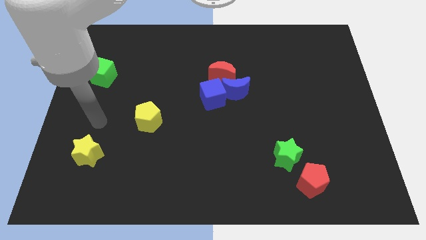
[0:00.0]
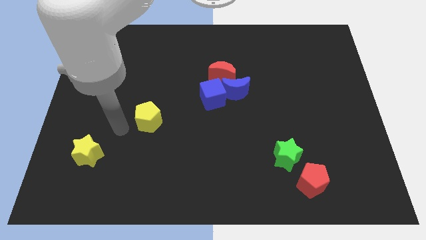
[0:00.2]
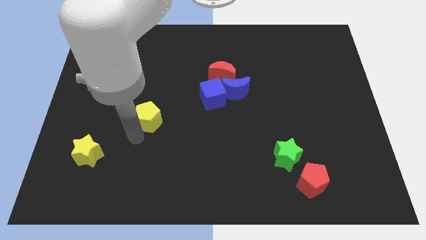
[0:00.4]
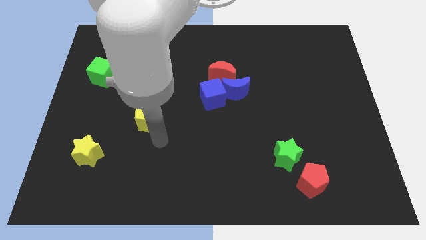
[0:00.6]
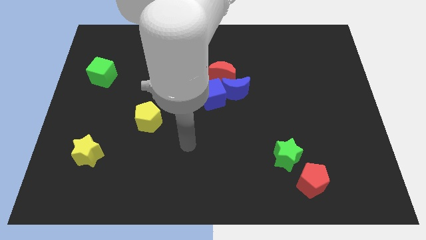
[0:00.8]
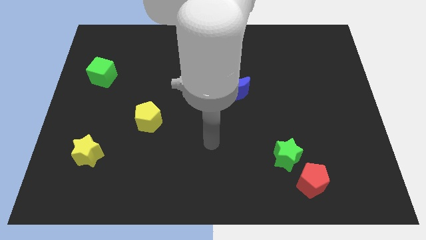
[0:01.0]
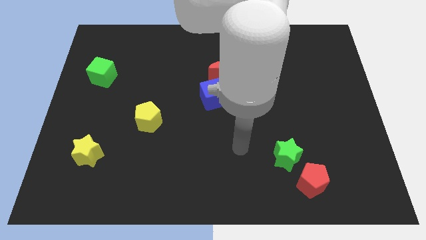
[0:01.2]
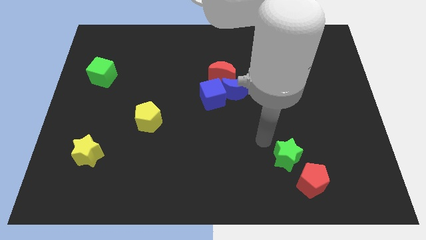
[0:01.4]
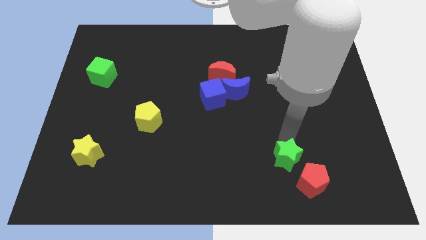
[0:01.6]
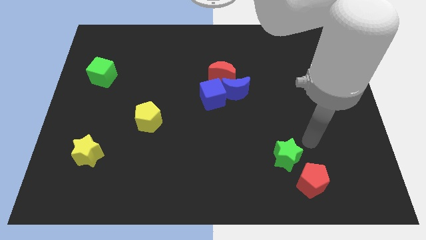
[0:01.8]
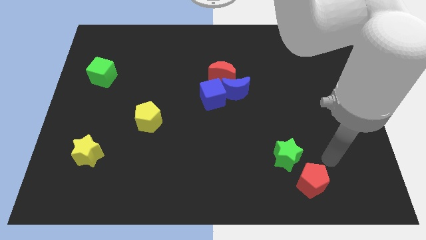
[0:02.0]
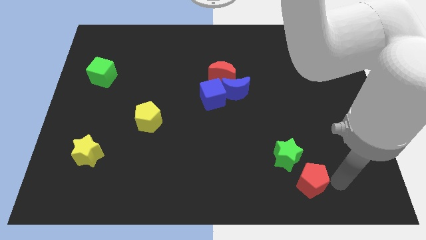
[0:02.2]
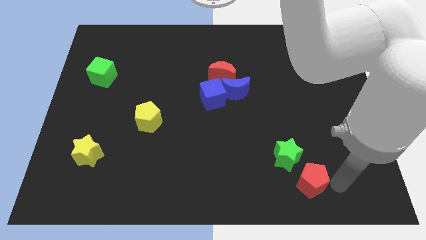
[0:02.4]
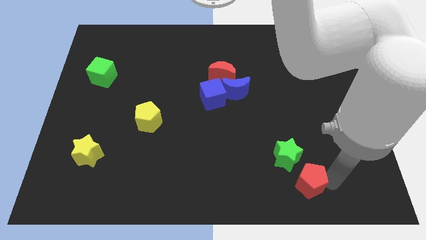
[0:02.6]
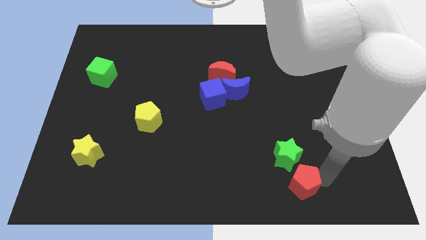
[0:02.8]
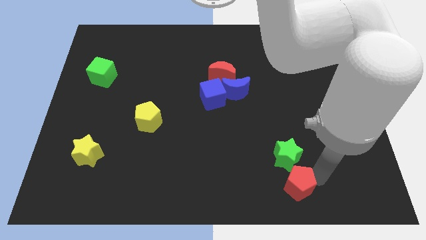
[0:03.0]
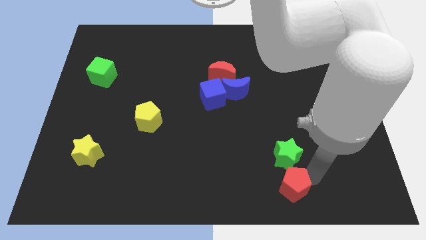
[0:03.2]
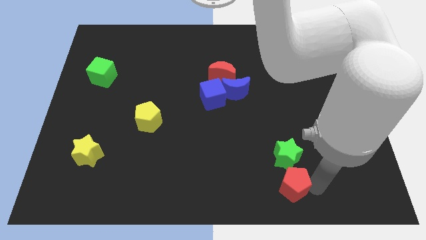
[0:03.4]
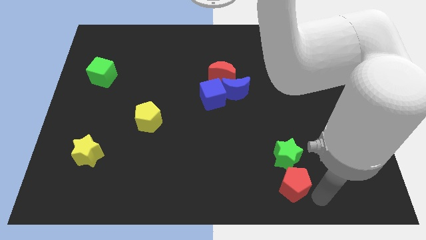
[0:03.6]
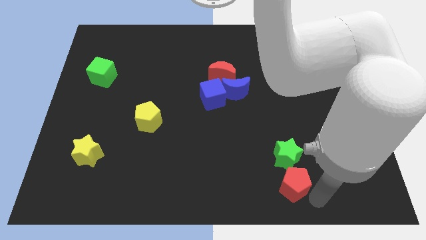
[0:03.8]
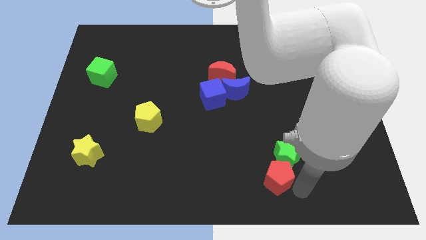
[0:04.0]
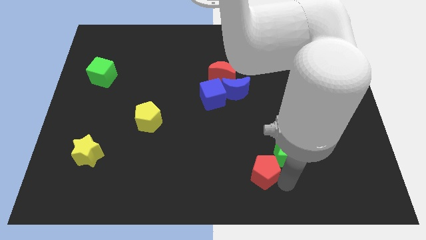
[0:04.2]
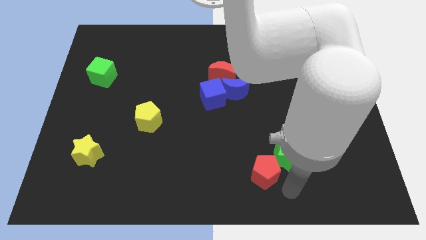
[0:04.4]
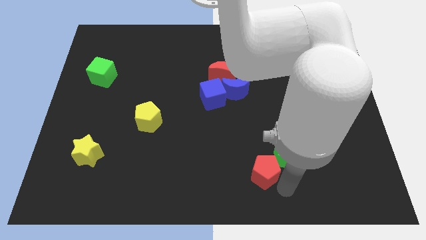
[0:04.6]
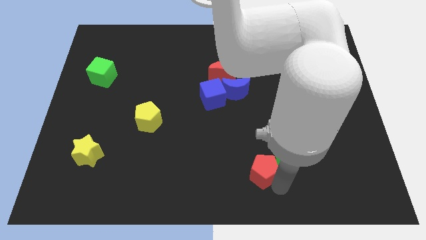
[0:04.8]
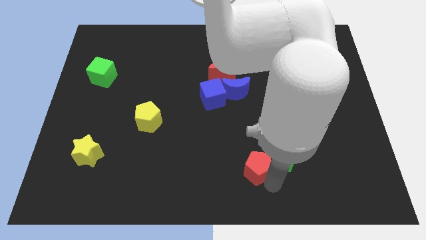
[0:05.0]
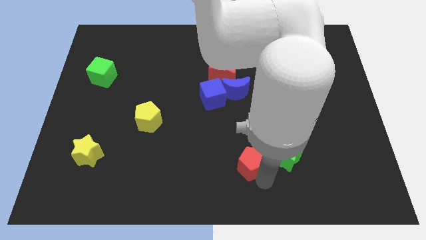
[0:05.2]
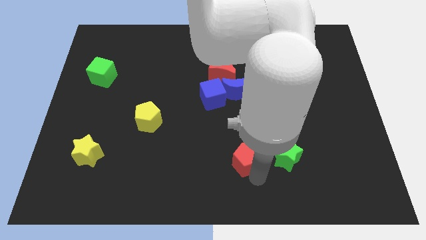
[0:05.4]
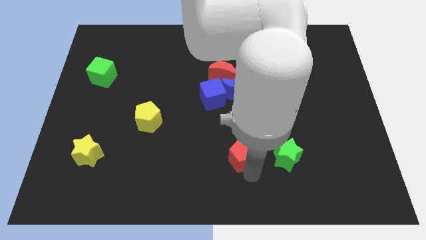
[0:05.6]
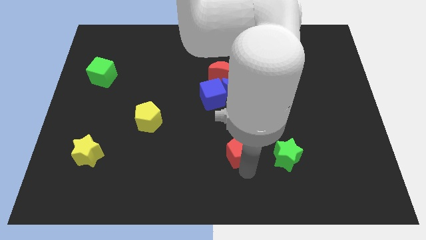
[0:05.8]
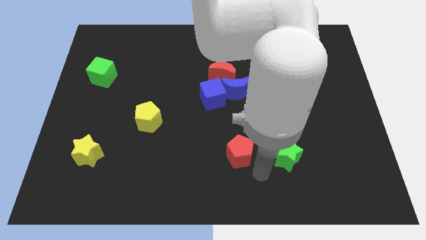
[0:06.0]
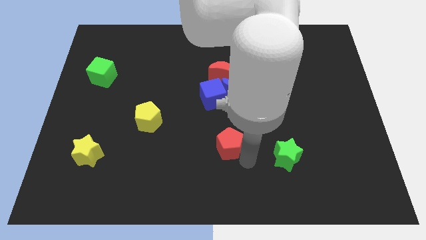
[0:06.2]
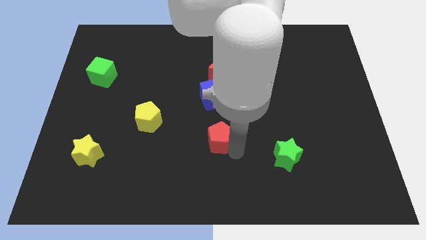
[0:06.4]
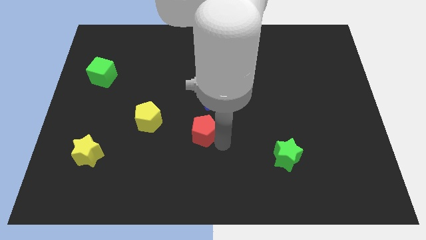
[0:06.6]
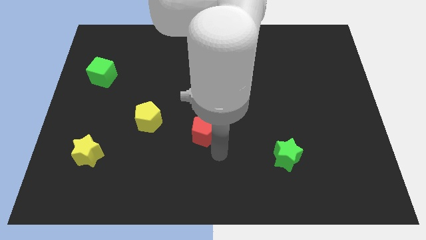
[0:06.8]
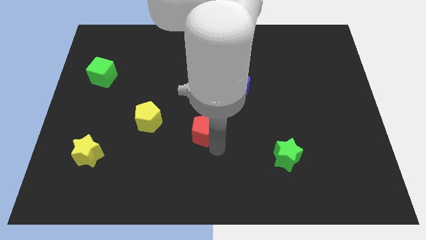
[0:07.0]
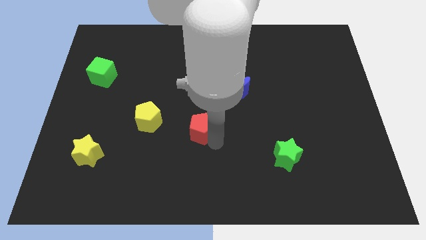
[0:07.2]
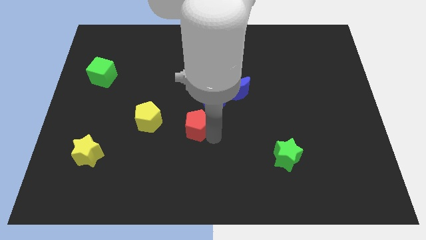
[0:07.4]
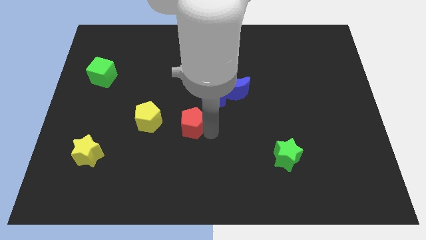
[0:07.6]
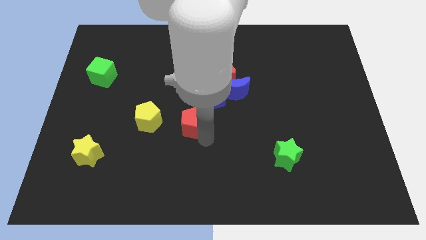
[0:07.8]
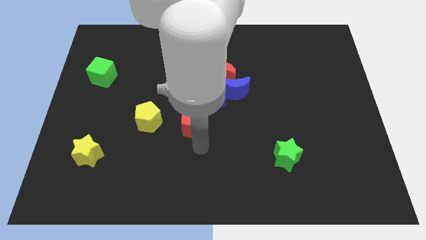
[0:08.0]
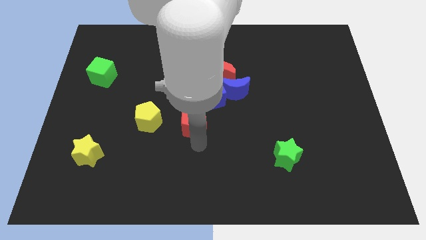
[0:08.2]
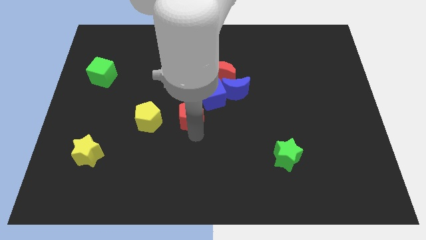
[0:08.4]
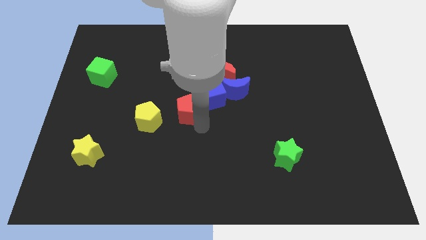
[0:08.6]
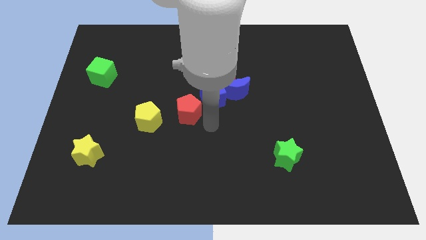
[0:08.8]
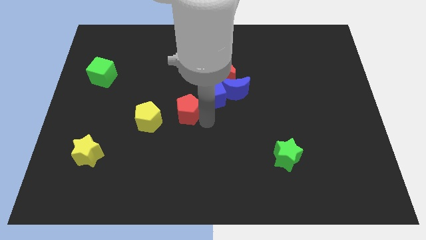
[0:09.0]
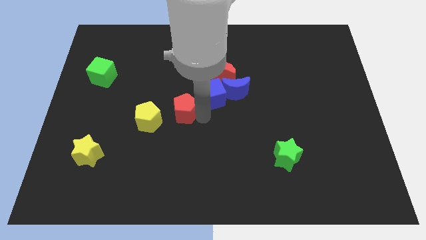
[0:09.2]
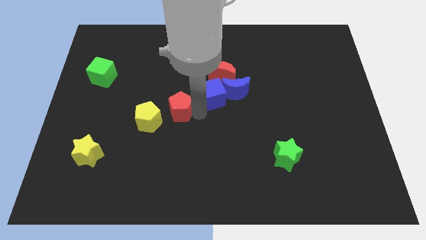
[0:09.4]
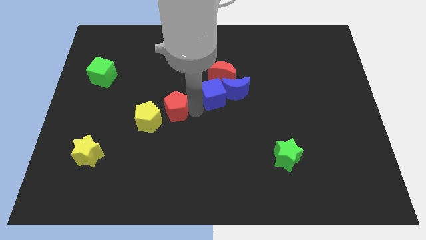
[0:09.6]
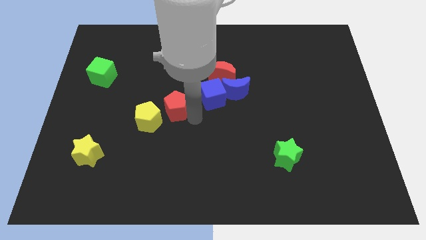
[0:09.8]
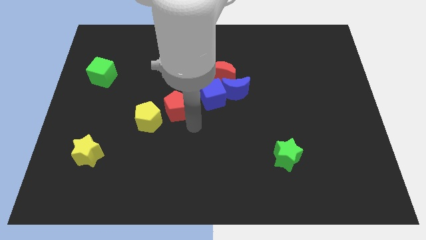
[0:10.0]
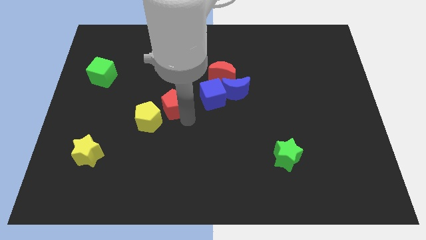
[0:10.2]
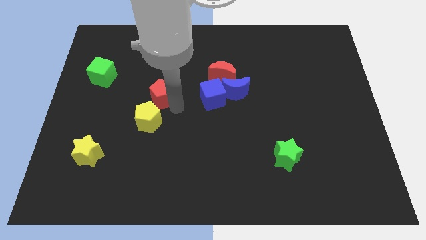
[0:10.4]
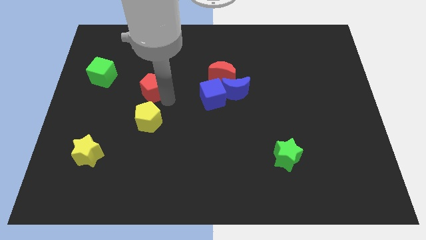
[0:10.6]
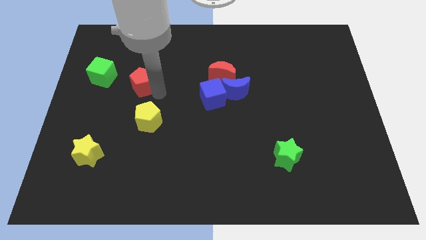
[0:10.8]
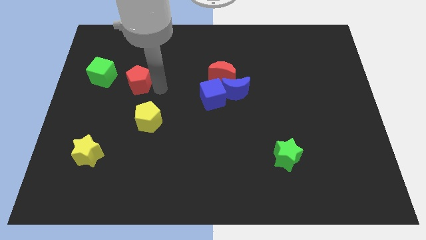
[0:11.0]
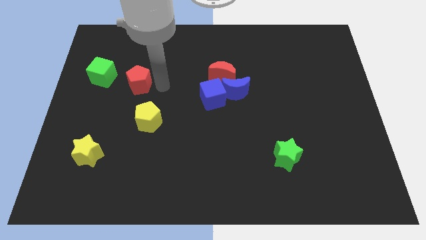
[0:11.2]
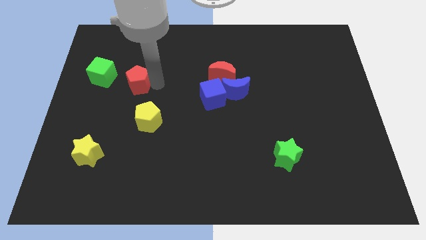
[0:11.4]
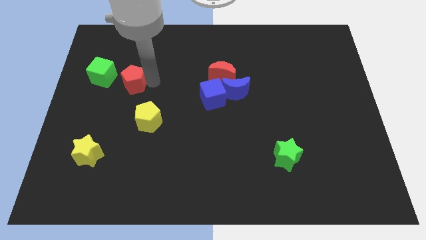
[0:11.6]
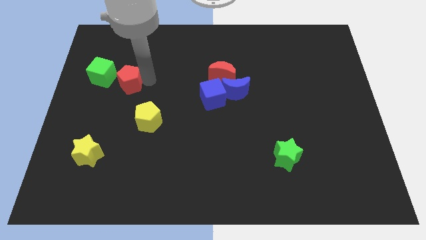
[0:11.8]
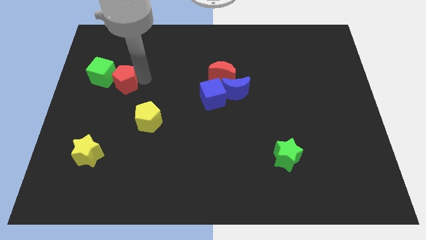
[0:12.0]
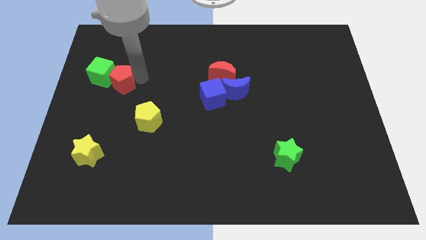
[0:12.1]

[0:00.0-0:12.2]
move the red pentagon towards the green cube
